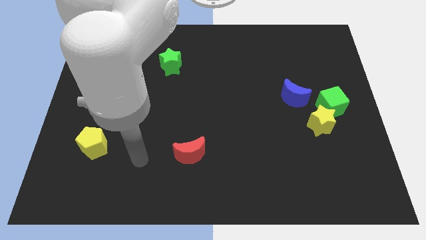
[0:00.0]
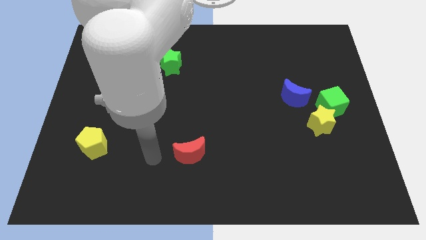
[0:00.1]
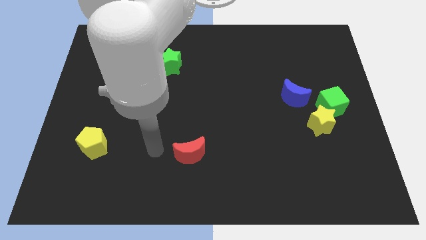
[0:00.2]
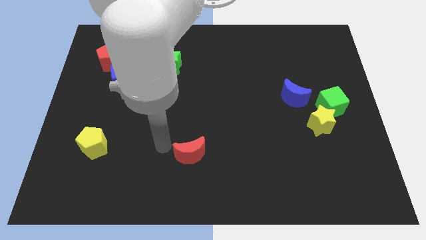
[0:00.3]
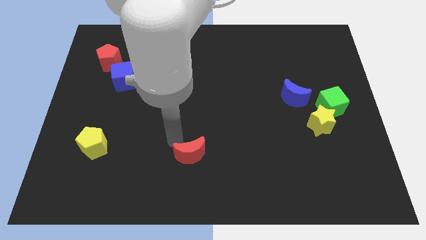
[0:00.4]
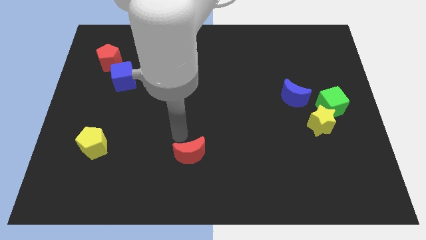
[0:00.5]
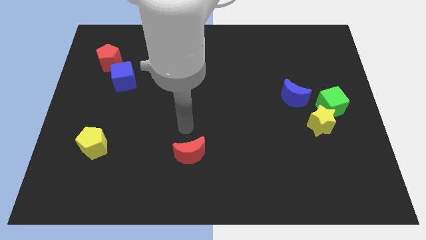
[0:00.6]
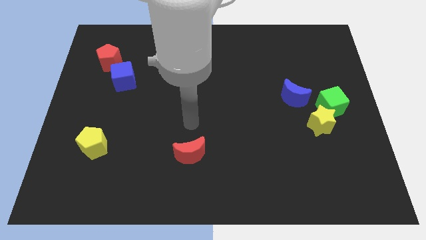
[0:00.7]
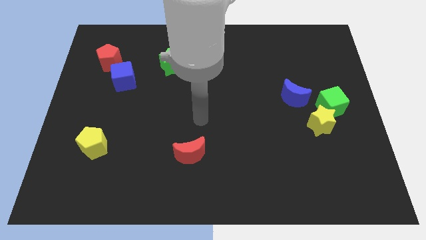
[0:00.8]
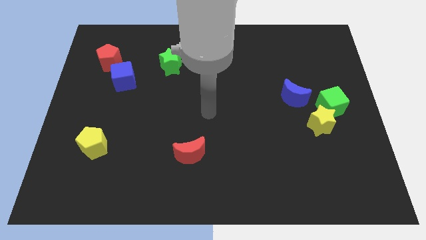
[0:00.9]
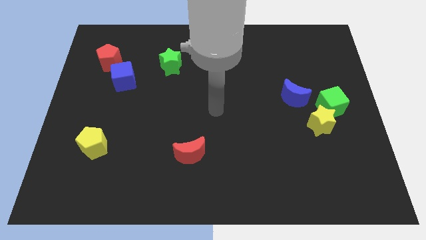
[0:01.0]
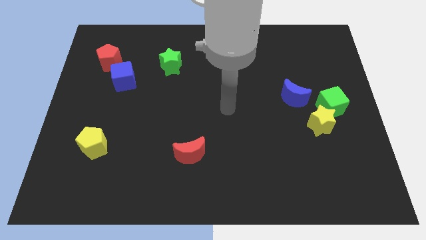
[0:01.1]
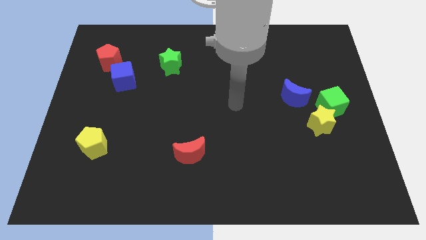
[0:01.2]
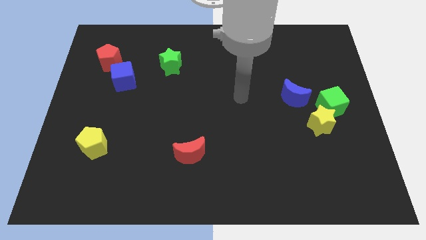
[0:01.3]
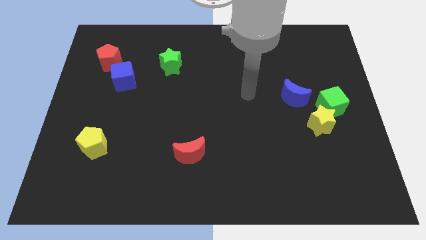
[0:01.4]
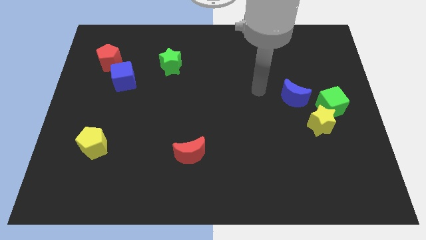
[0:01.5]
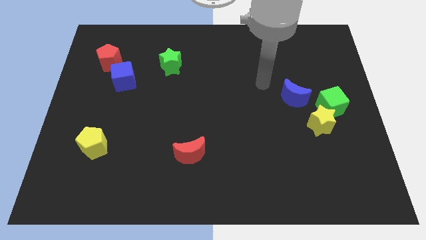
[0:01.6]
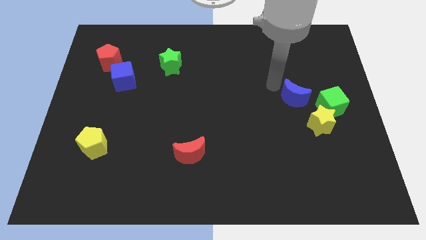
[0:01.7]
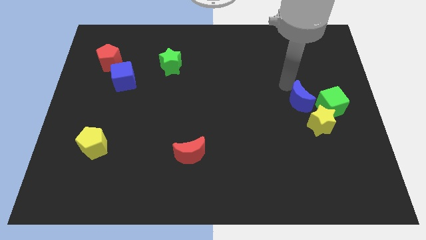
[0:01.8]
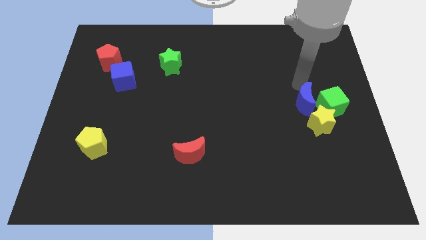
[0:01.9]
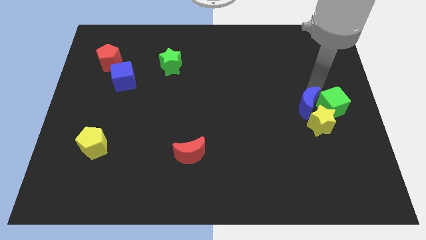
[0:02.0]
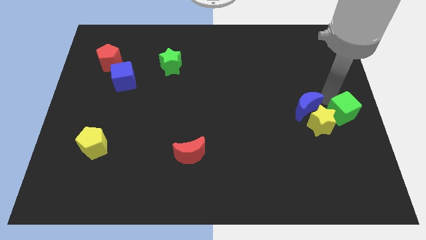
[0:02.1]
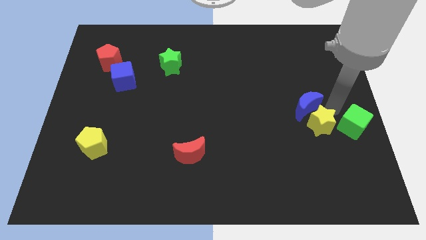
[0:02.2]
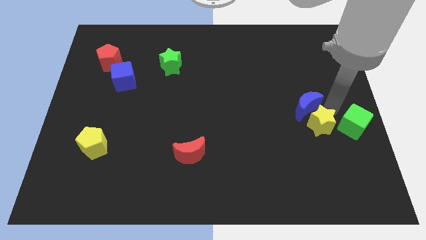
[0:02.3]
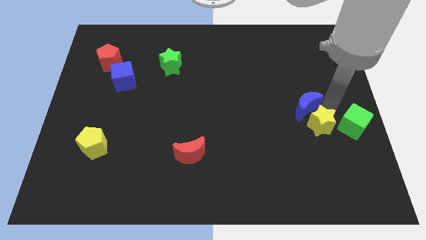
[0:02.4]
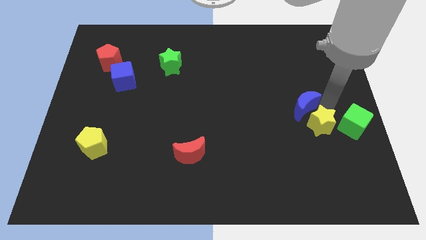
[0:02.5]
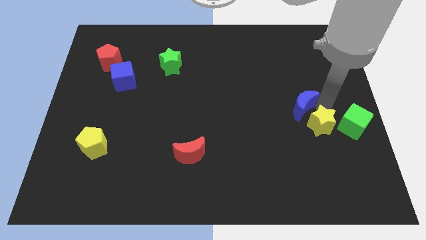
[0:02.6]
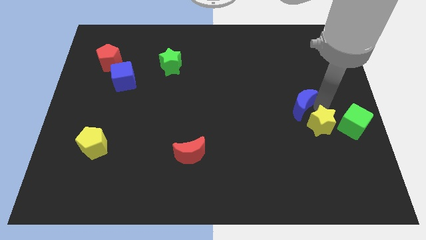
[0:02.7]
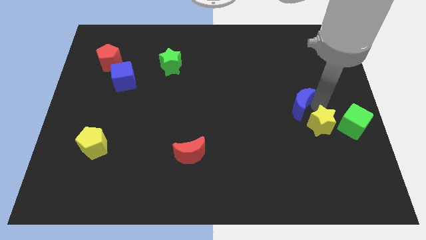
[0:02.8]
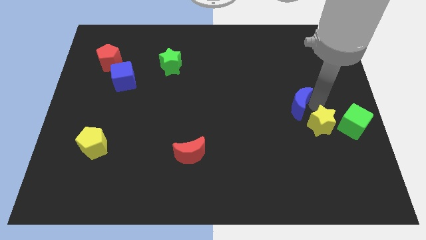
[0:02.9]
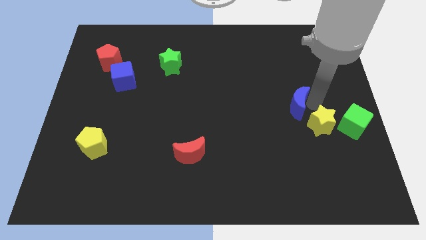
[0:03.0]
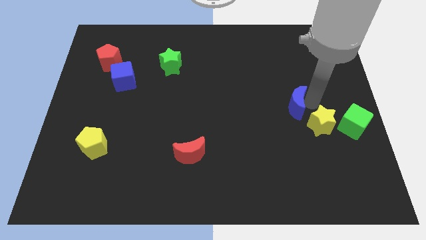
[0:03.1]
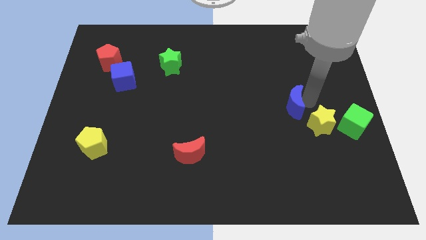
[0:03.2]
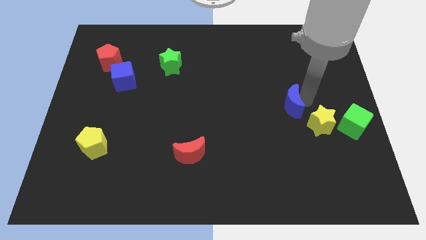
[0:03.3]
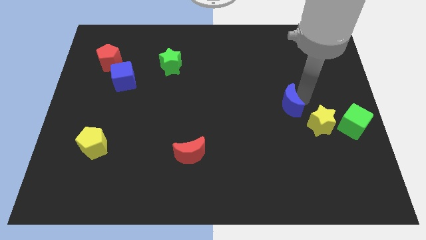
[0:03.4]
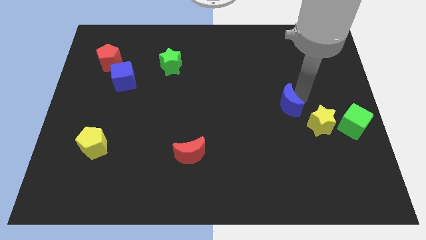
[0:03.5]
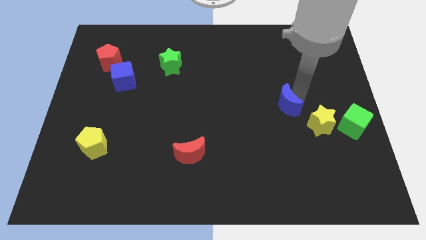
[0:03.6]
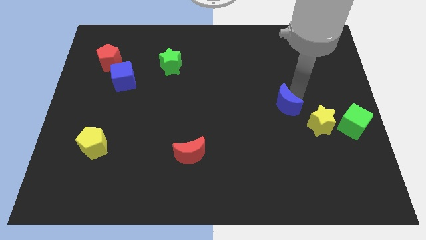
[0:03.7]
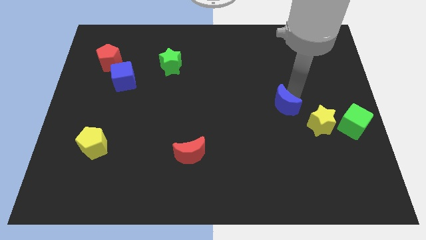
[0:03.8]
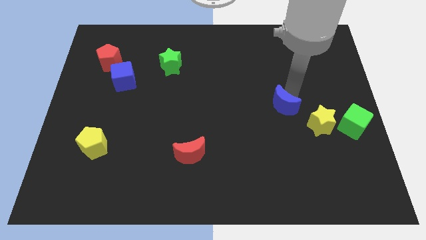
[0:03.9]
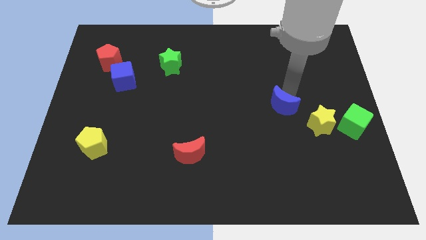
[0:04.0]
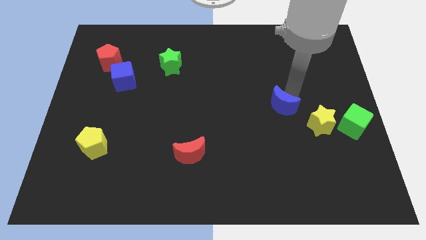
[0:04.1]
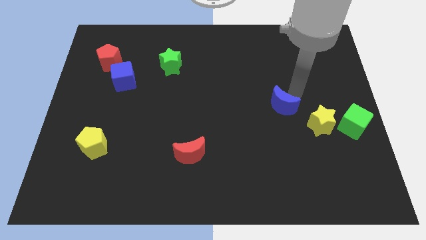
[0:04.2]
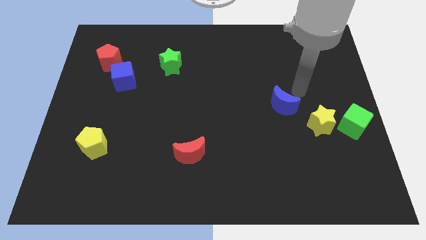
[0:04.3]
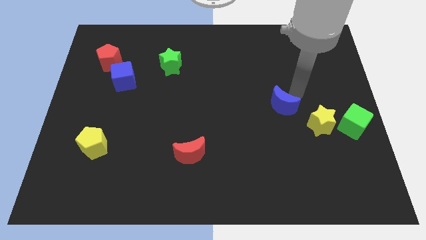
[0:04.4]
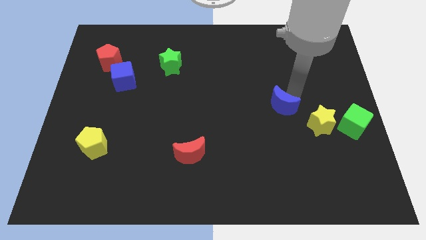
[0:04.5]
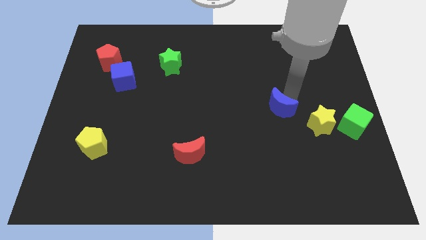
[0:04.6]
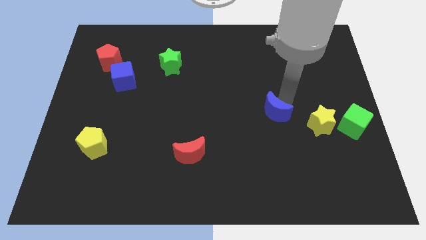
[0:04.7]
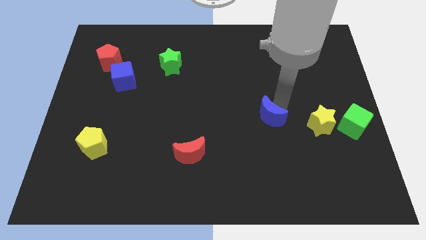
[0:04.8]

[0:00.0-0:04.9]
slide the blue moon somewhat down and to the left

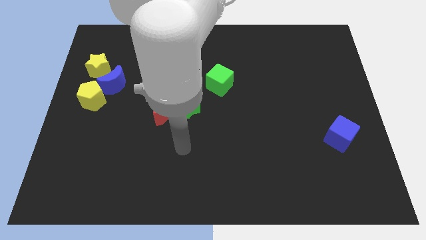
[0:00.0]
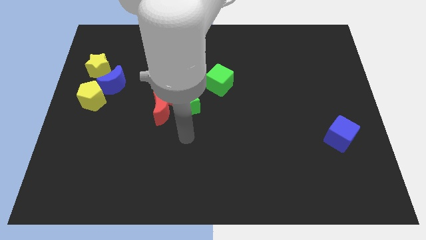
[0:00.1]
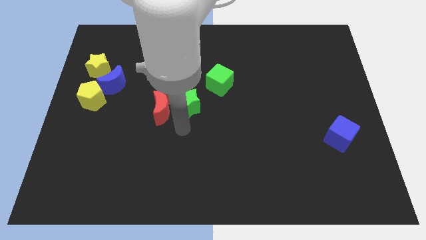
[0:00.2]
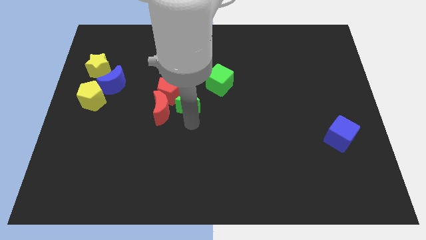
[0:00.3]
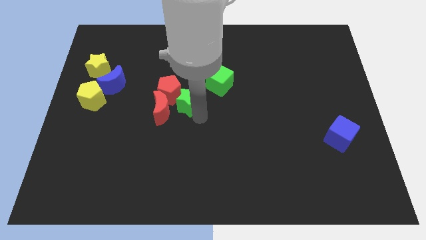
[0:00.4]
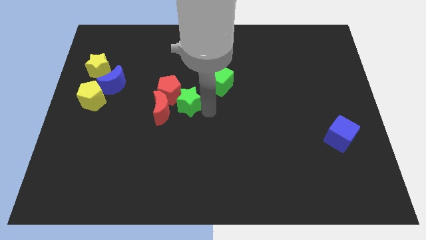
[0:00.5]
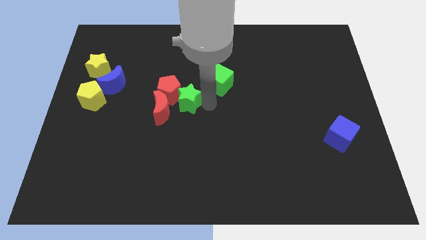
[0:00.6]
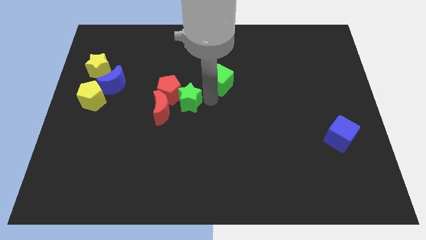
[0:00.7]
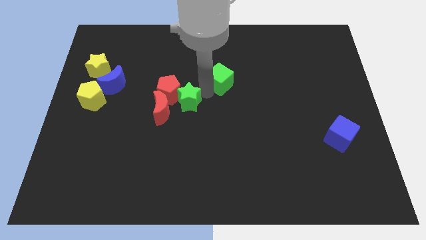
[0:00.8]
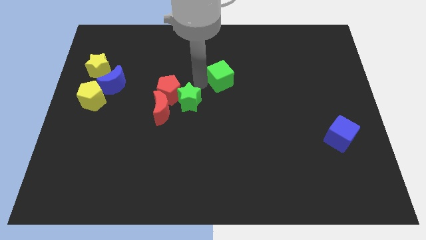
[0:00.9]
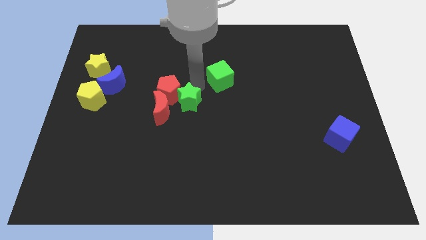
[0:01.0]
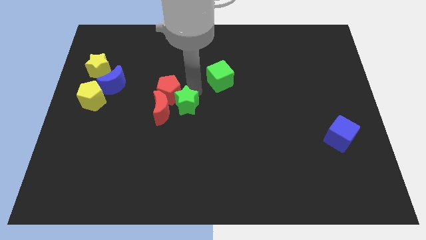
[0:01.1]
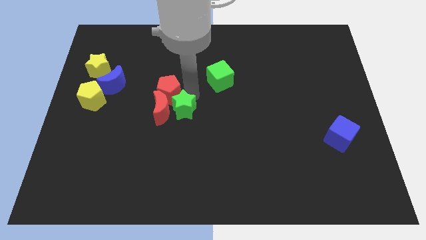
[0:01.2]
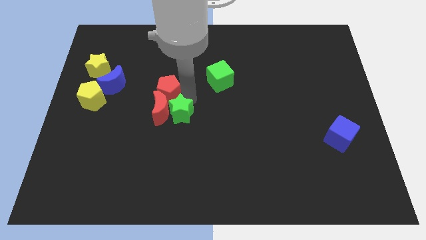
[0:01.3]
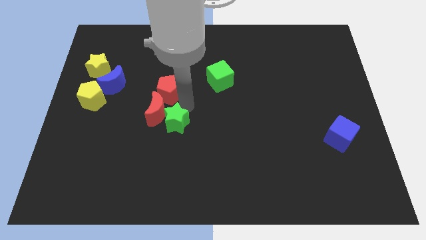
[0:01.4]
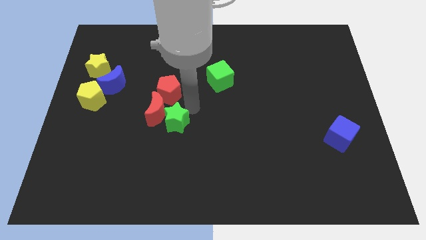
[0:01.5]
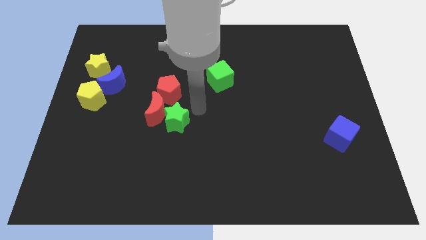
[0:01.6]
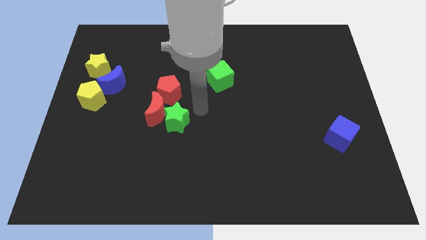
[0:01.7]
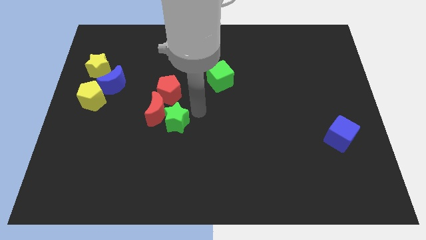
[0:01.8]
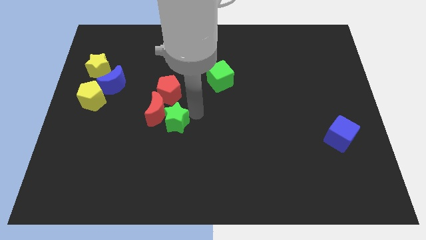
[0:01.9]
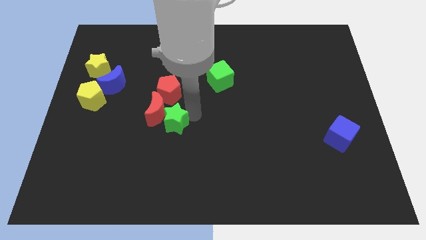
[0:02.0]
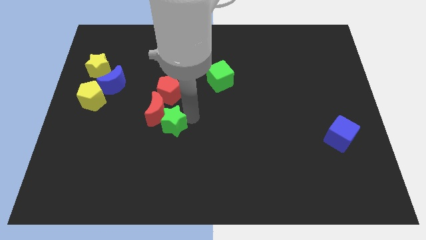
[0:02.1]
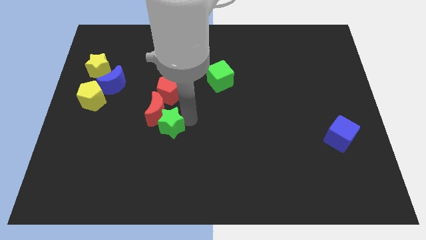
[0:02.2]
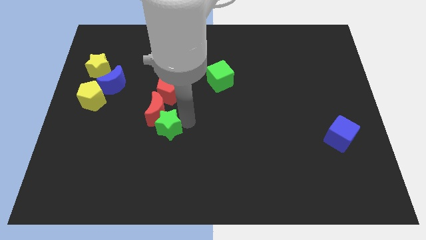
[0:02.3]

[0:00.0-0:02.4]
move the green star a little bit down and then to the left

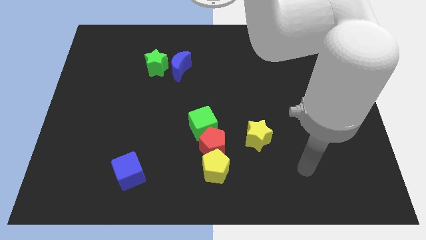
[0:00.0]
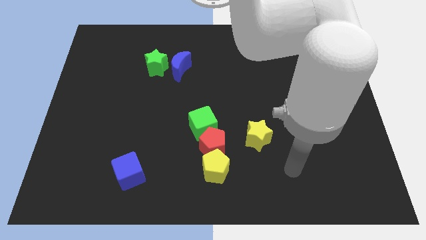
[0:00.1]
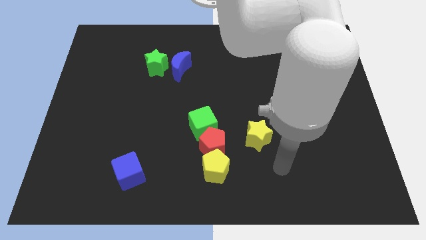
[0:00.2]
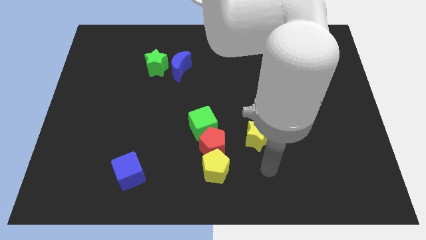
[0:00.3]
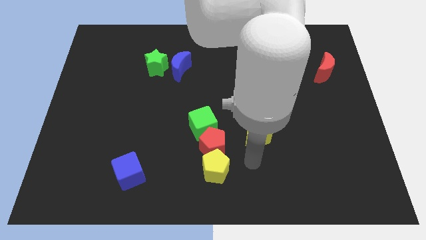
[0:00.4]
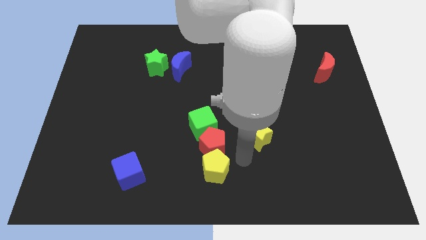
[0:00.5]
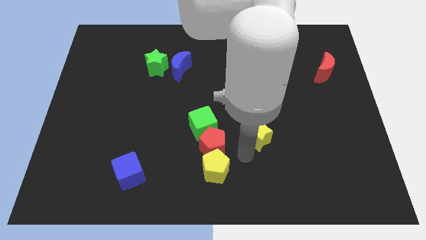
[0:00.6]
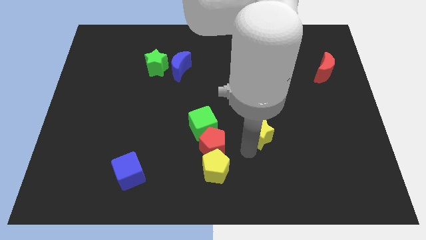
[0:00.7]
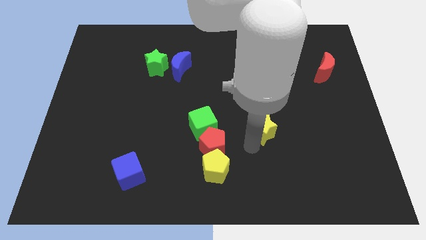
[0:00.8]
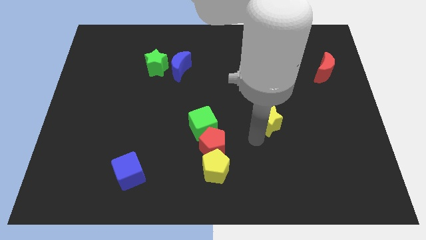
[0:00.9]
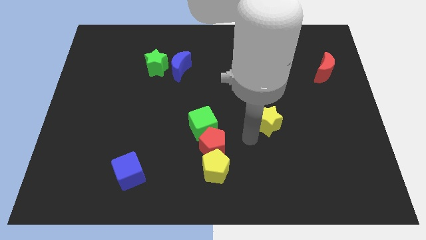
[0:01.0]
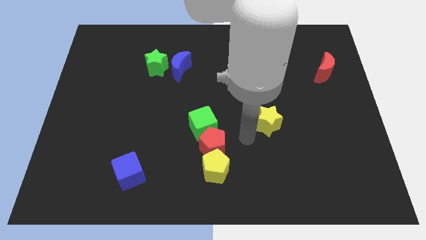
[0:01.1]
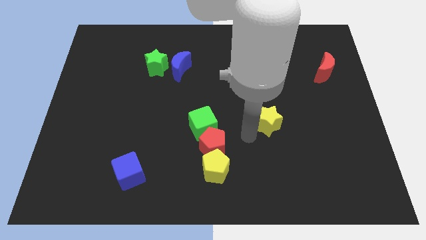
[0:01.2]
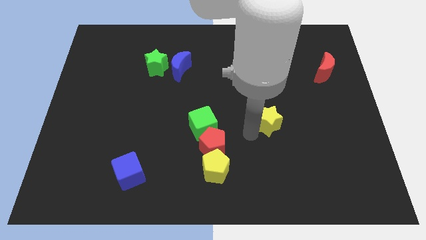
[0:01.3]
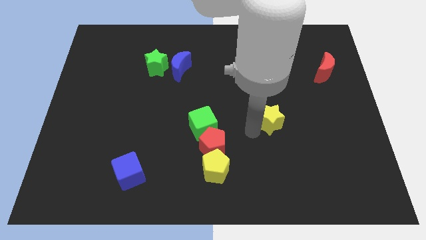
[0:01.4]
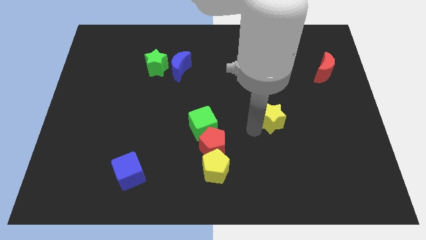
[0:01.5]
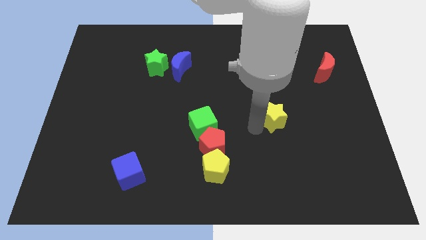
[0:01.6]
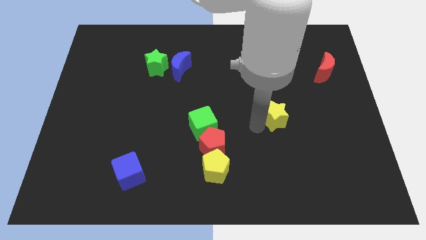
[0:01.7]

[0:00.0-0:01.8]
slightly slide the yellow star upwards and right diagonally
